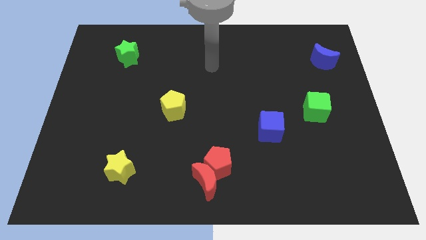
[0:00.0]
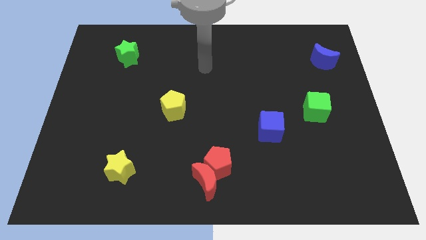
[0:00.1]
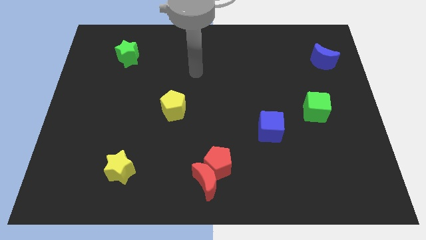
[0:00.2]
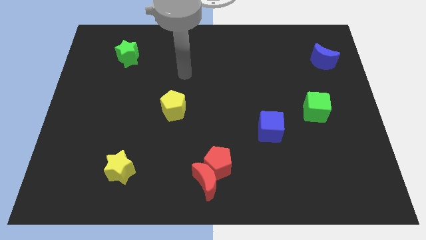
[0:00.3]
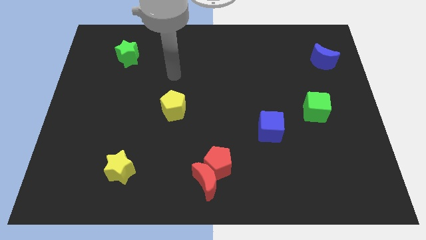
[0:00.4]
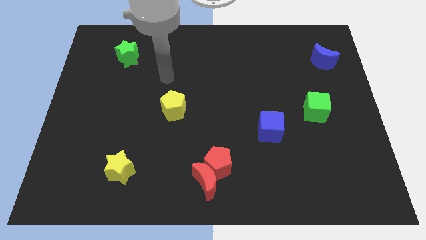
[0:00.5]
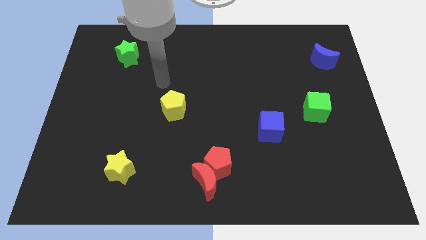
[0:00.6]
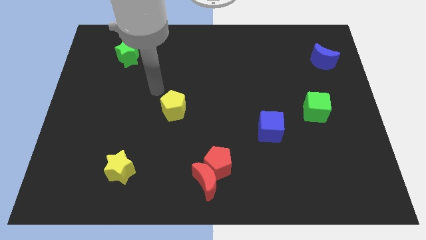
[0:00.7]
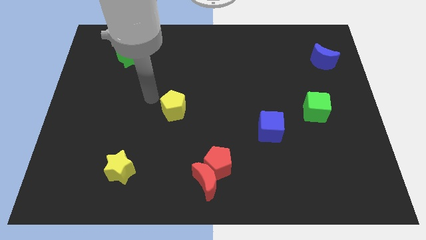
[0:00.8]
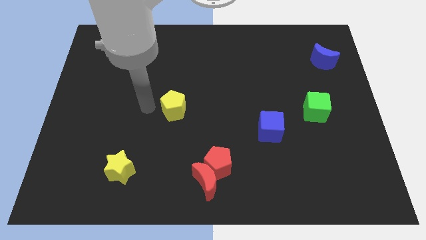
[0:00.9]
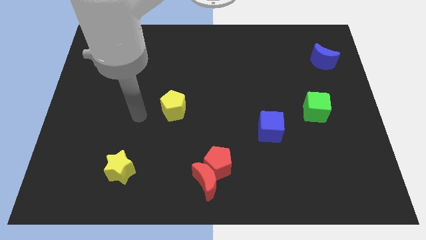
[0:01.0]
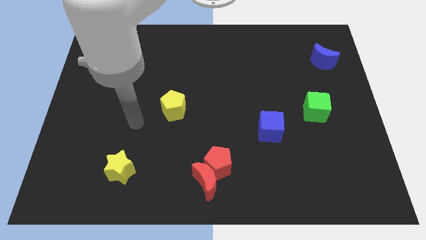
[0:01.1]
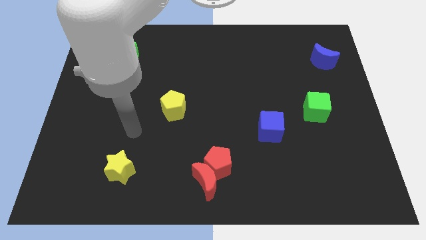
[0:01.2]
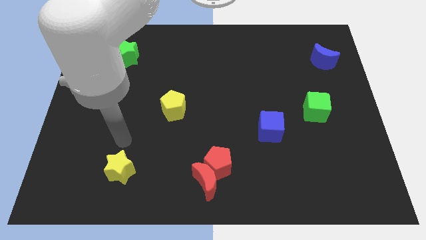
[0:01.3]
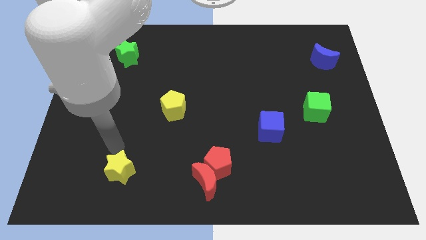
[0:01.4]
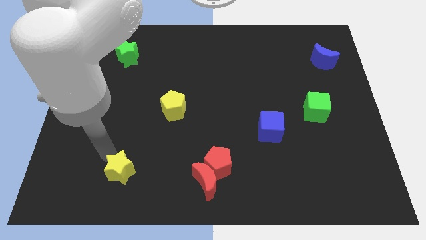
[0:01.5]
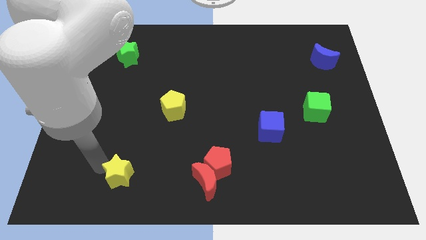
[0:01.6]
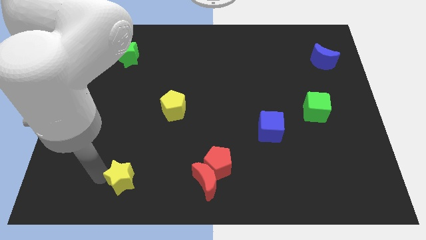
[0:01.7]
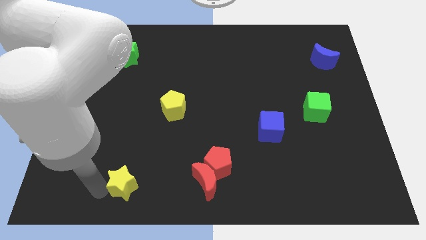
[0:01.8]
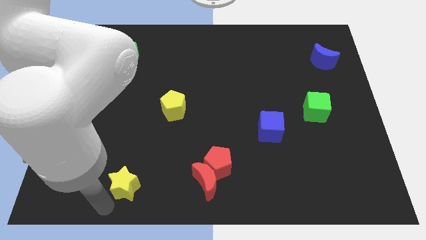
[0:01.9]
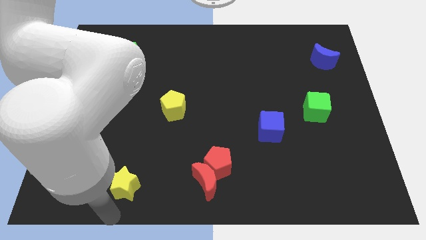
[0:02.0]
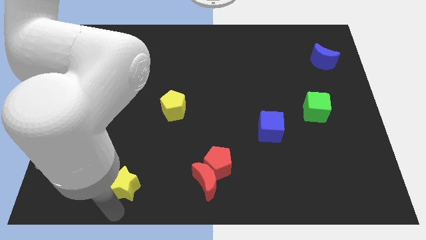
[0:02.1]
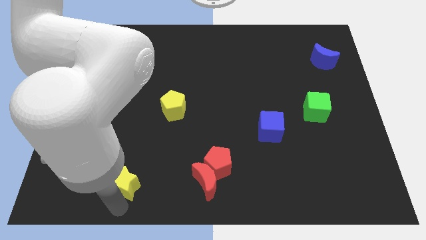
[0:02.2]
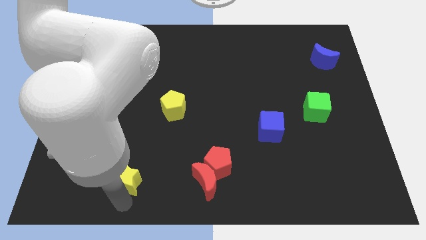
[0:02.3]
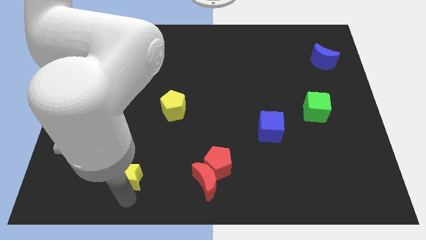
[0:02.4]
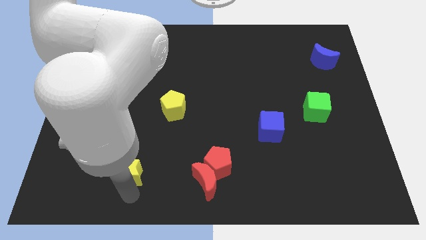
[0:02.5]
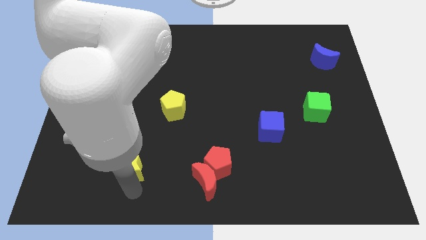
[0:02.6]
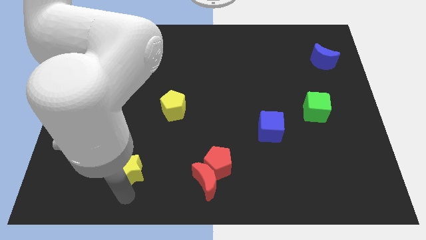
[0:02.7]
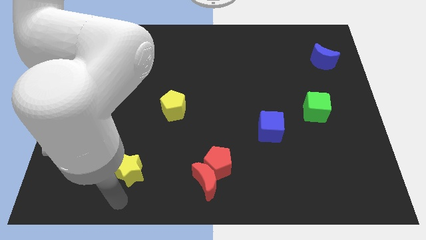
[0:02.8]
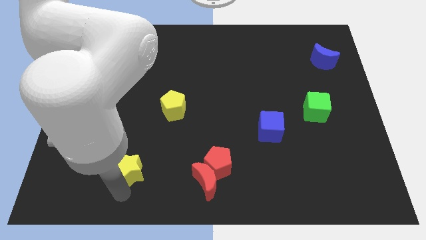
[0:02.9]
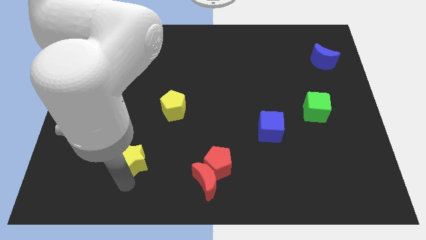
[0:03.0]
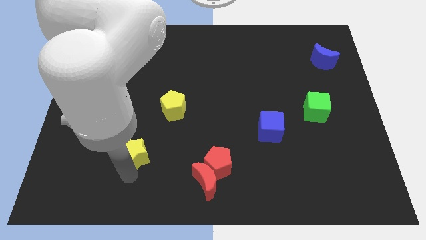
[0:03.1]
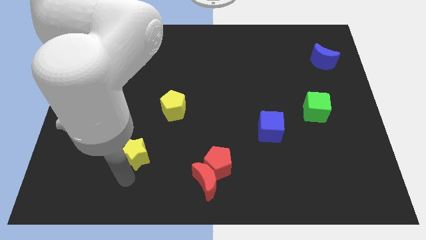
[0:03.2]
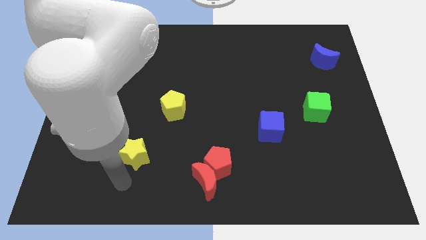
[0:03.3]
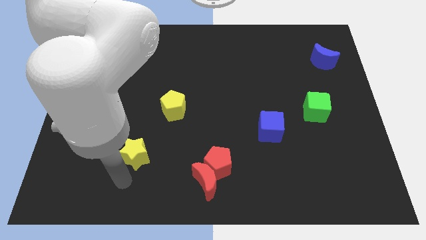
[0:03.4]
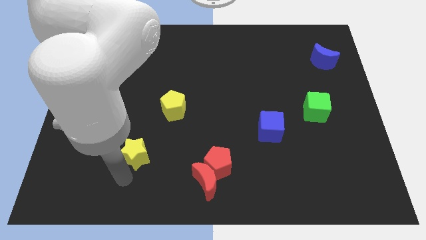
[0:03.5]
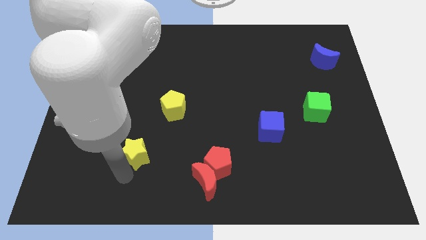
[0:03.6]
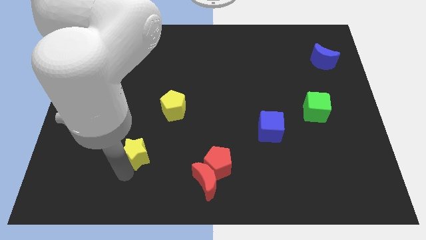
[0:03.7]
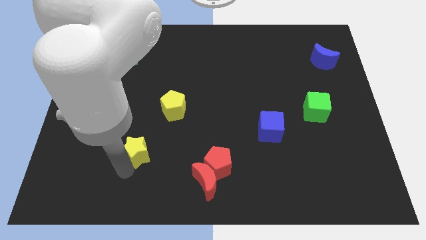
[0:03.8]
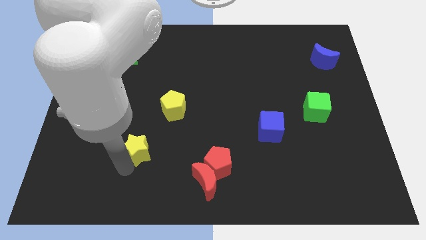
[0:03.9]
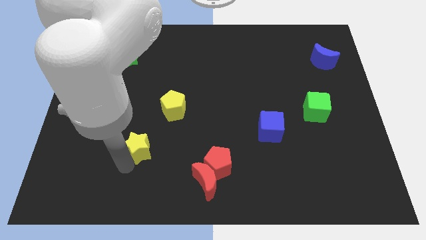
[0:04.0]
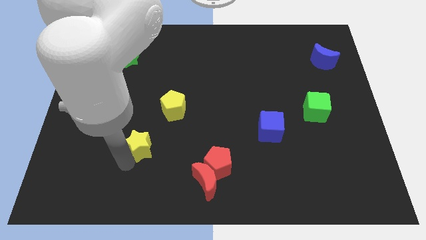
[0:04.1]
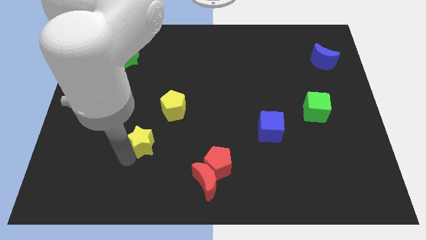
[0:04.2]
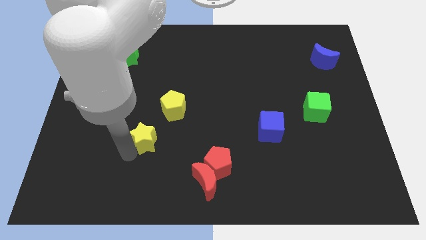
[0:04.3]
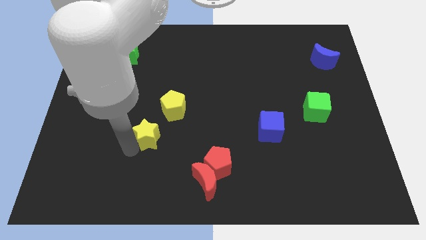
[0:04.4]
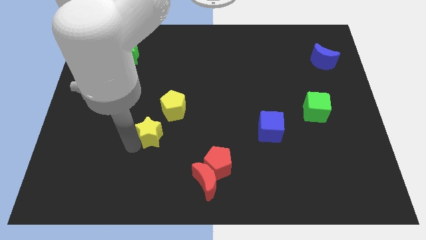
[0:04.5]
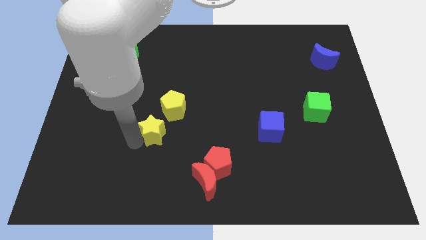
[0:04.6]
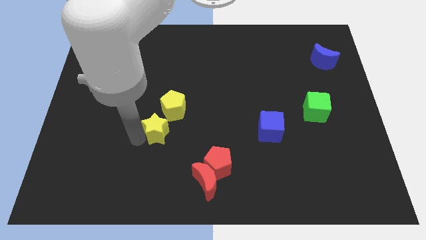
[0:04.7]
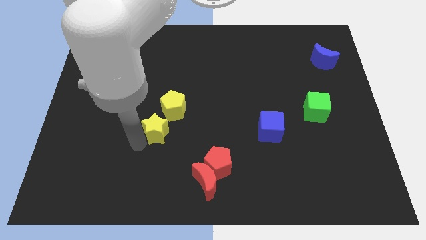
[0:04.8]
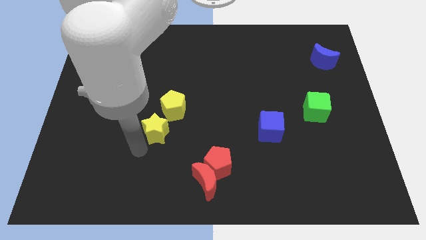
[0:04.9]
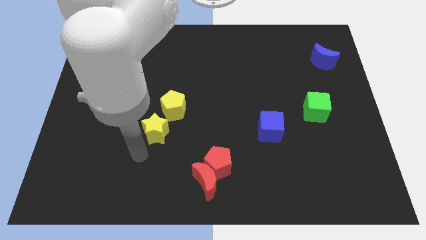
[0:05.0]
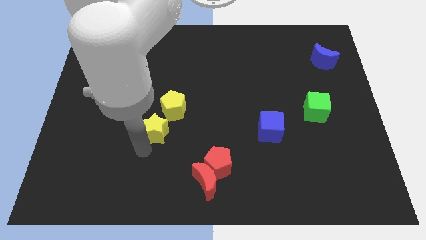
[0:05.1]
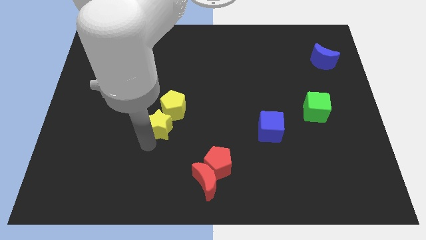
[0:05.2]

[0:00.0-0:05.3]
push the yellow star to the yellow pentagon

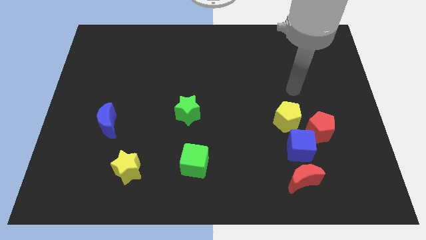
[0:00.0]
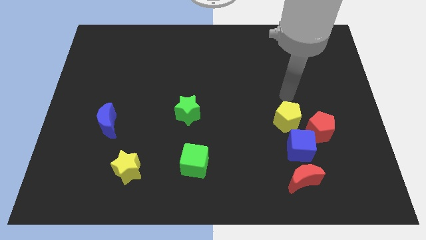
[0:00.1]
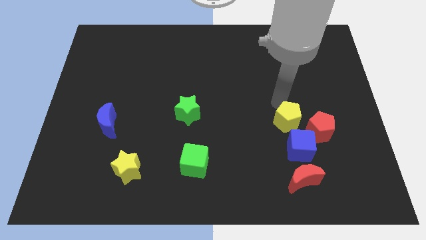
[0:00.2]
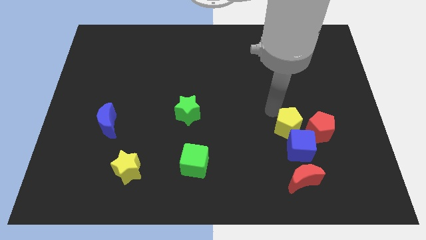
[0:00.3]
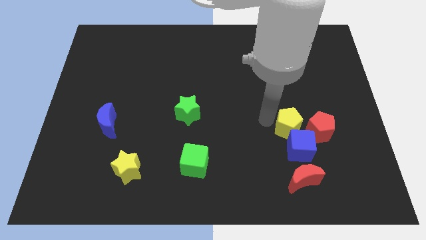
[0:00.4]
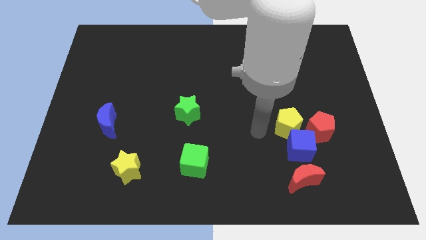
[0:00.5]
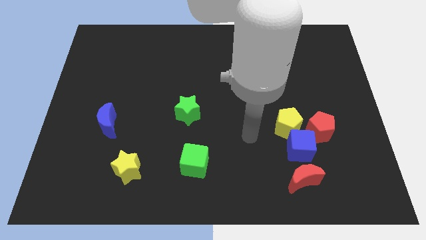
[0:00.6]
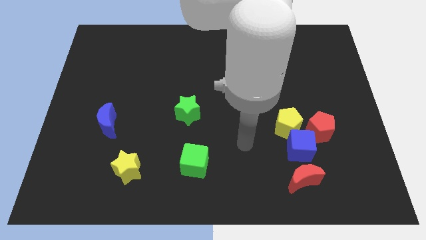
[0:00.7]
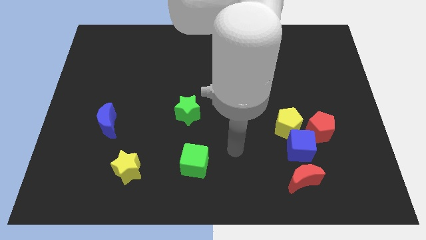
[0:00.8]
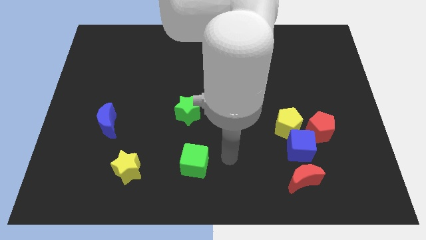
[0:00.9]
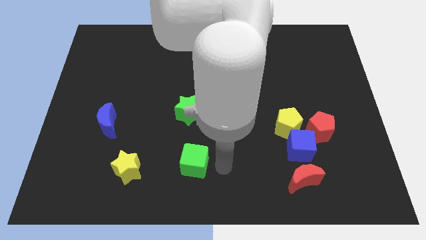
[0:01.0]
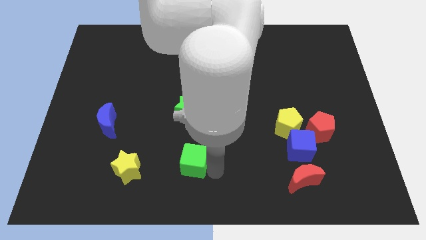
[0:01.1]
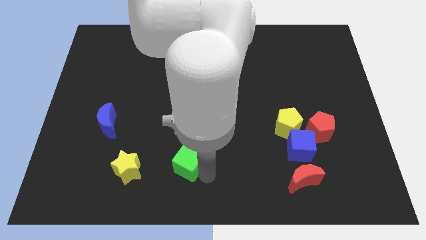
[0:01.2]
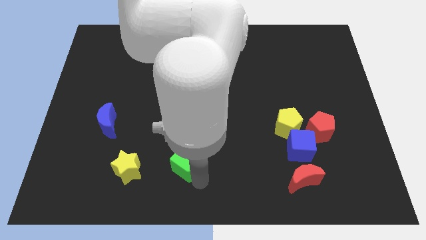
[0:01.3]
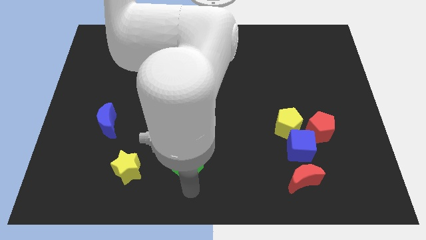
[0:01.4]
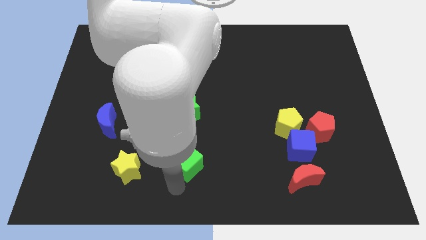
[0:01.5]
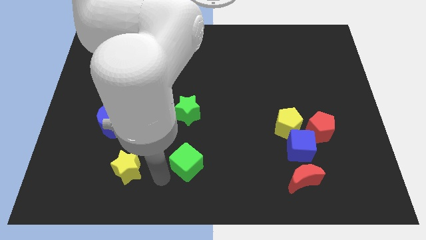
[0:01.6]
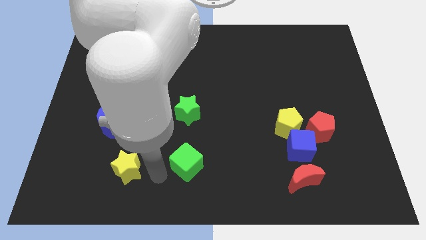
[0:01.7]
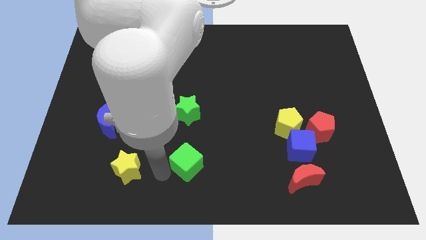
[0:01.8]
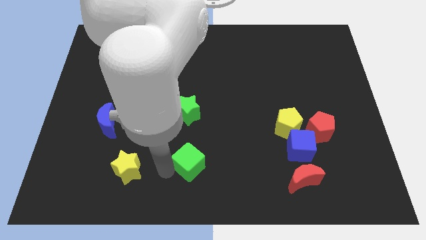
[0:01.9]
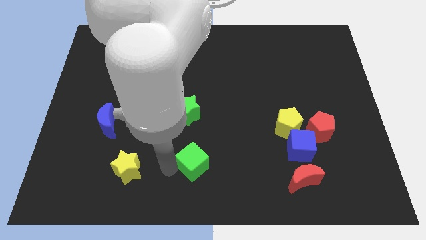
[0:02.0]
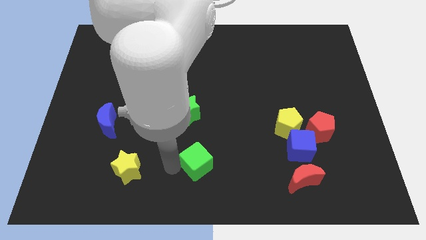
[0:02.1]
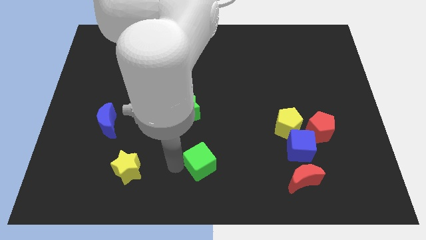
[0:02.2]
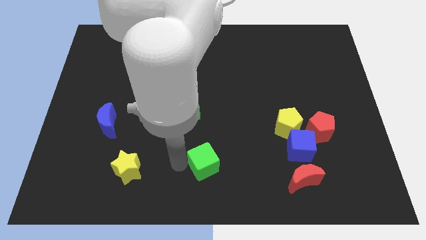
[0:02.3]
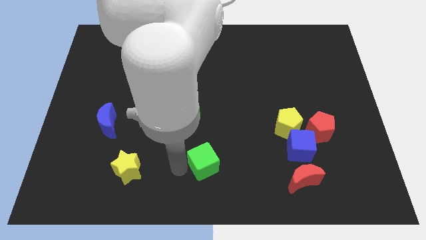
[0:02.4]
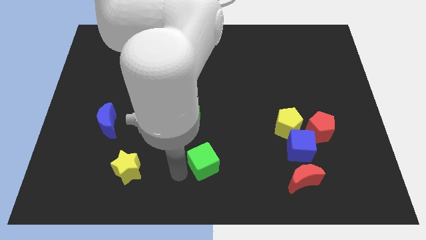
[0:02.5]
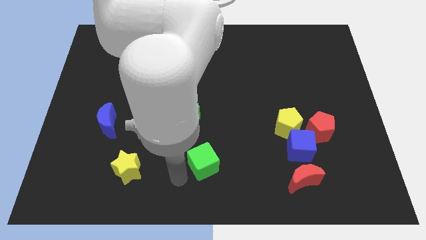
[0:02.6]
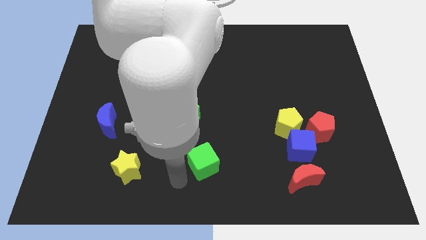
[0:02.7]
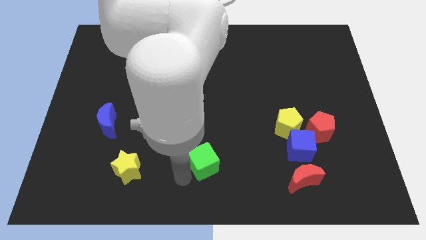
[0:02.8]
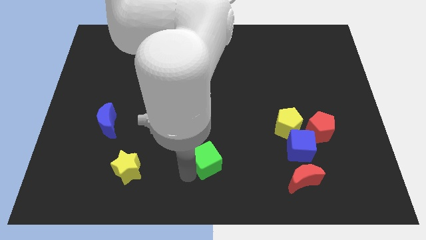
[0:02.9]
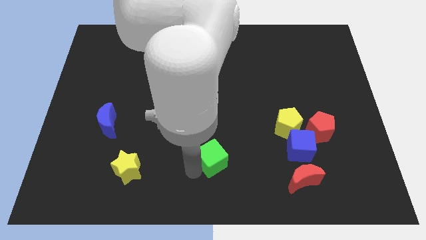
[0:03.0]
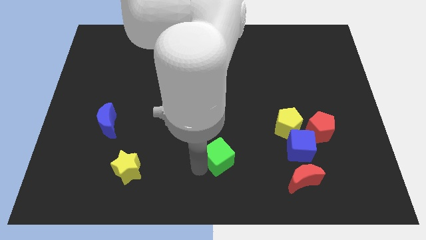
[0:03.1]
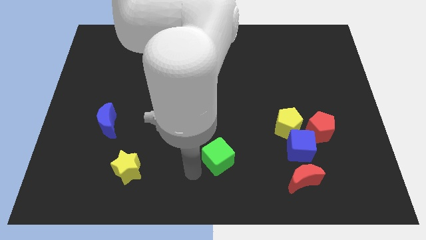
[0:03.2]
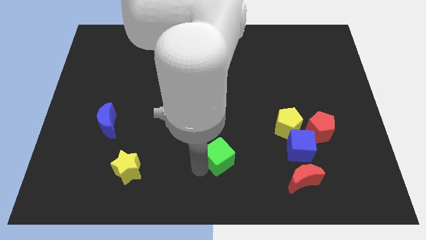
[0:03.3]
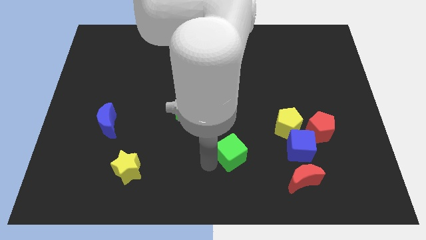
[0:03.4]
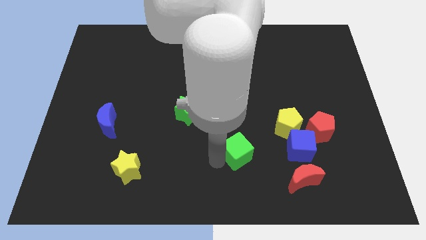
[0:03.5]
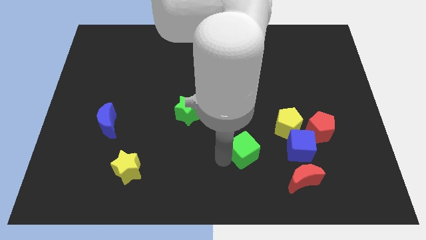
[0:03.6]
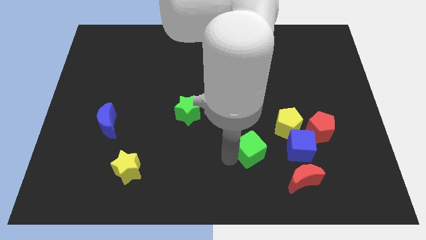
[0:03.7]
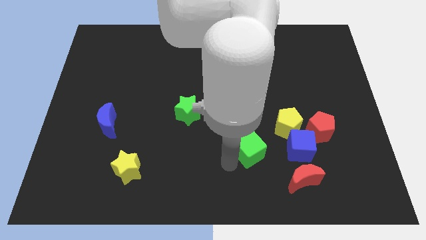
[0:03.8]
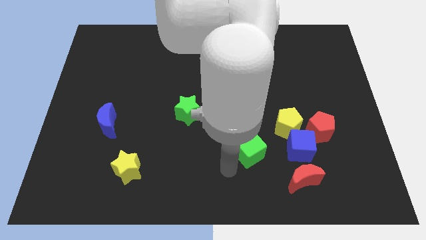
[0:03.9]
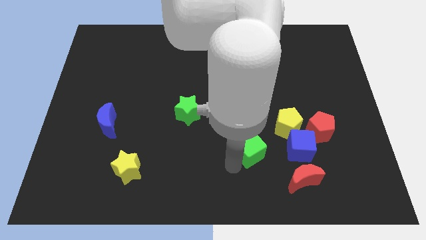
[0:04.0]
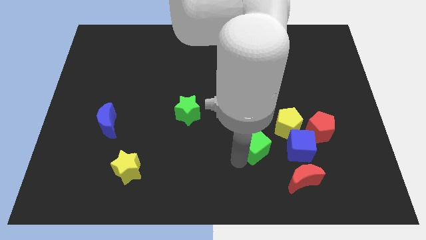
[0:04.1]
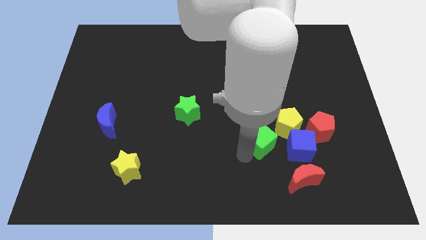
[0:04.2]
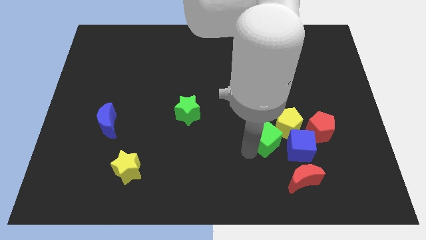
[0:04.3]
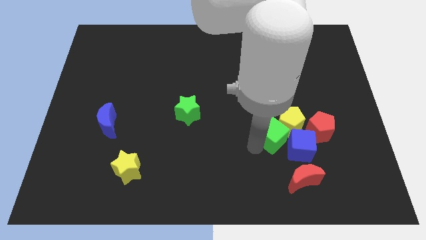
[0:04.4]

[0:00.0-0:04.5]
move the green cube to the yellow pentagon
